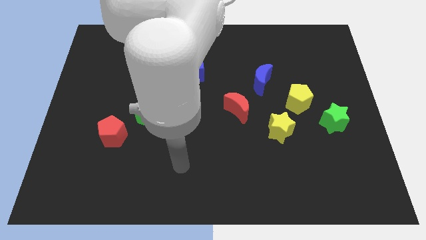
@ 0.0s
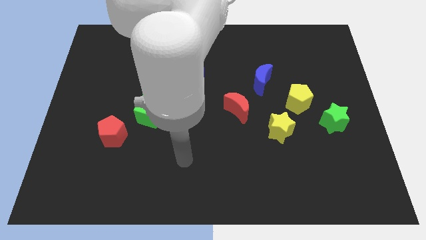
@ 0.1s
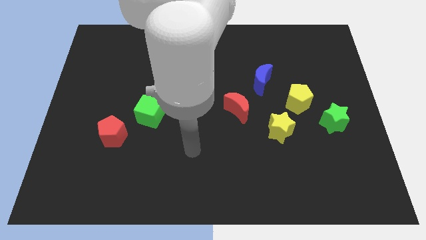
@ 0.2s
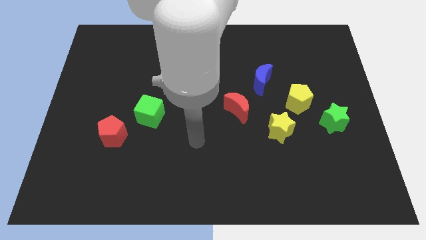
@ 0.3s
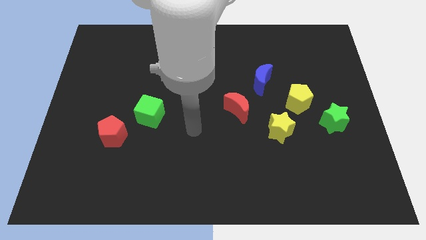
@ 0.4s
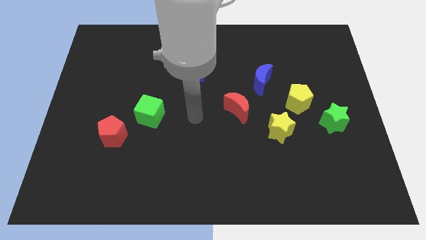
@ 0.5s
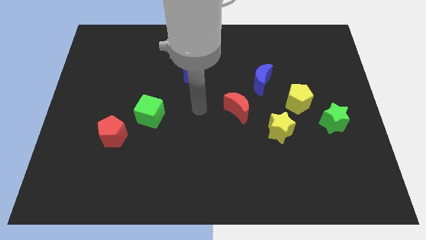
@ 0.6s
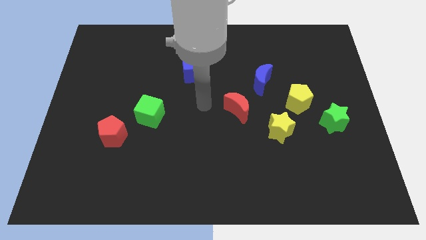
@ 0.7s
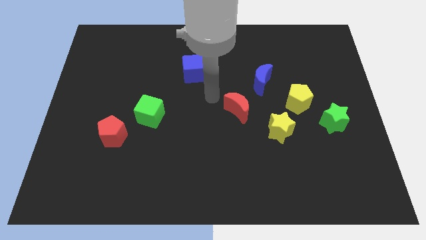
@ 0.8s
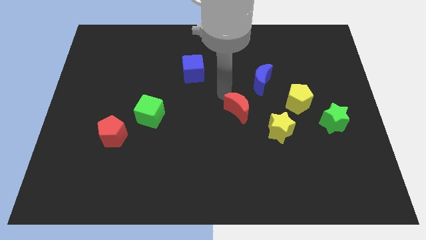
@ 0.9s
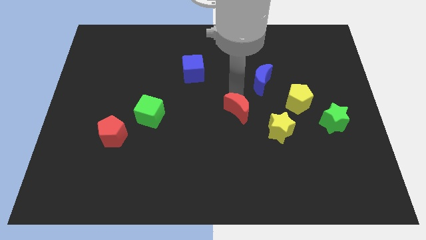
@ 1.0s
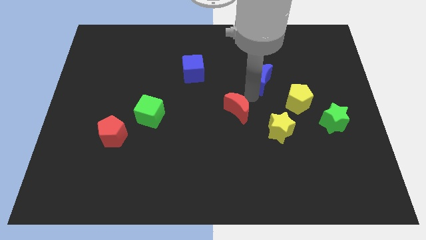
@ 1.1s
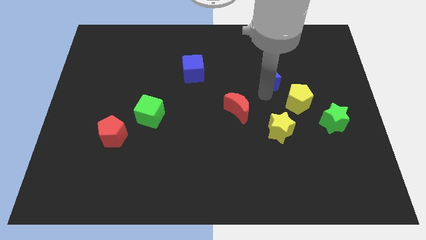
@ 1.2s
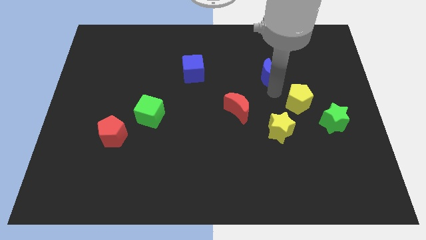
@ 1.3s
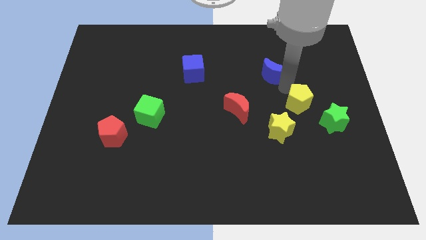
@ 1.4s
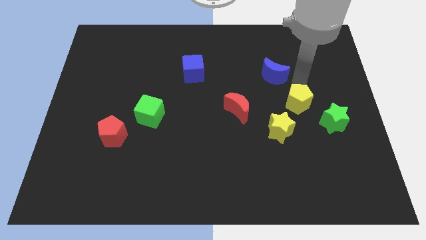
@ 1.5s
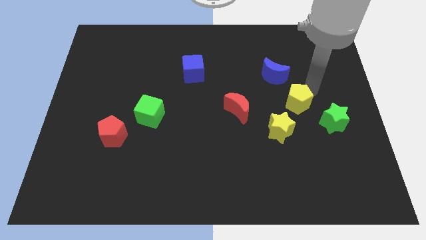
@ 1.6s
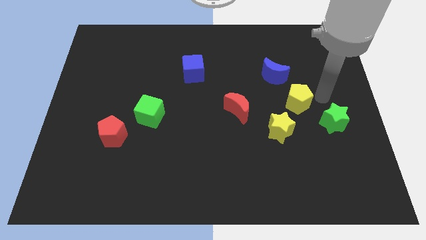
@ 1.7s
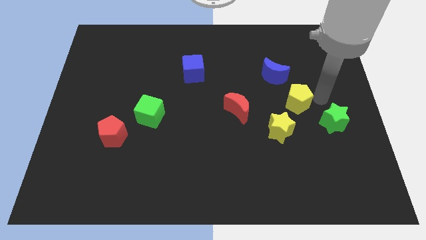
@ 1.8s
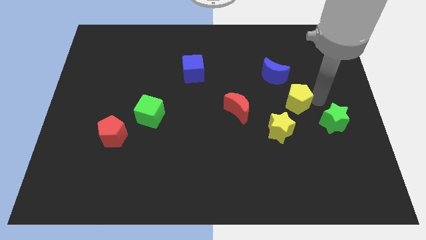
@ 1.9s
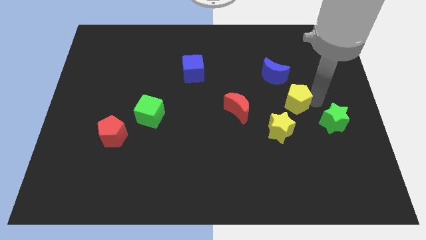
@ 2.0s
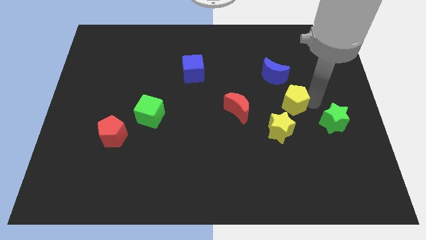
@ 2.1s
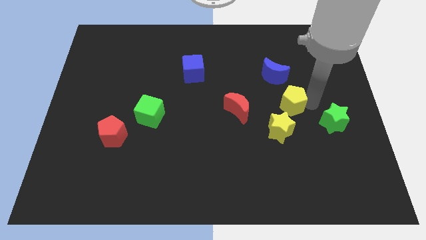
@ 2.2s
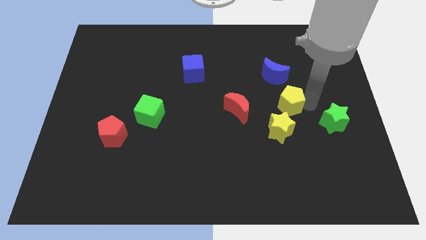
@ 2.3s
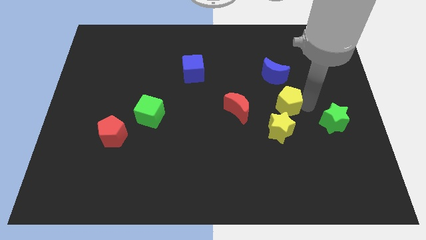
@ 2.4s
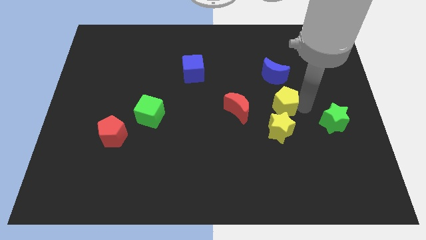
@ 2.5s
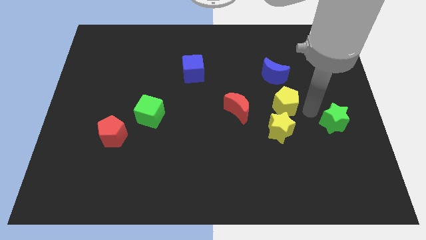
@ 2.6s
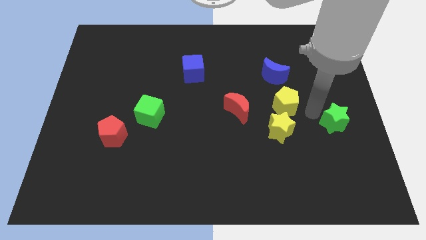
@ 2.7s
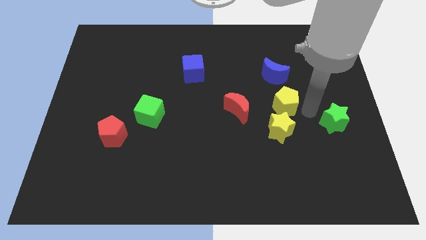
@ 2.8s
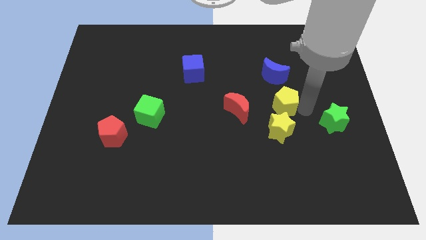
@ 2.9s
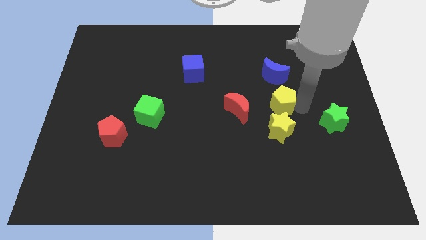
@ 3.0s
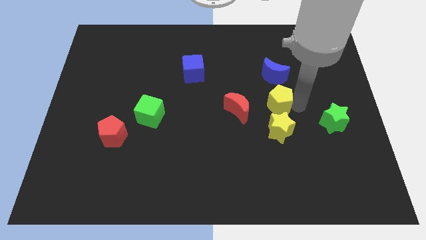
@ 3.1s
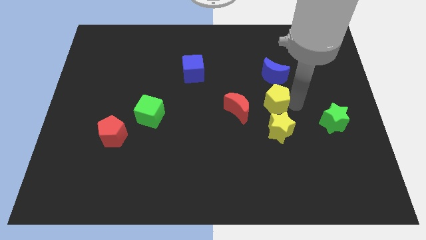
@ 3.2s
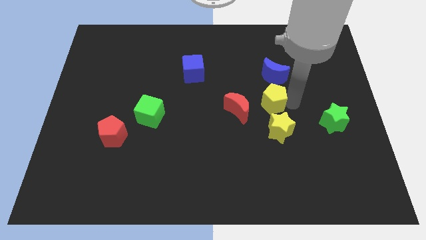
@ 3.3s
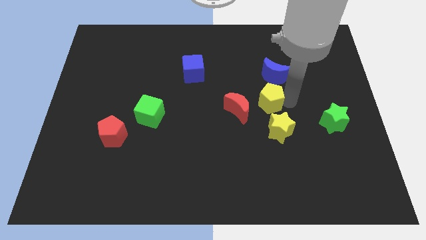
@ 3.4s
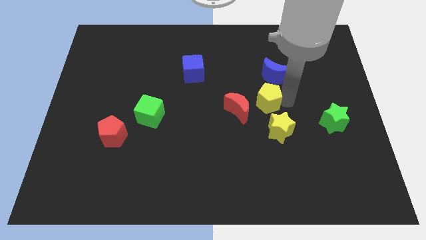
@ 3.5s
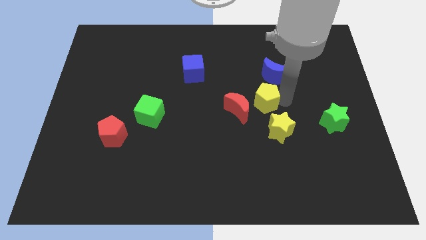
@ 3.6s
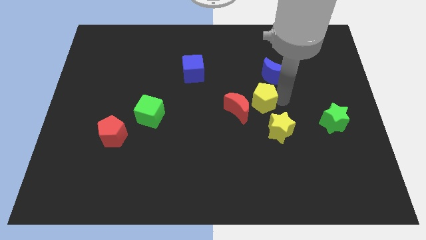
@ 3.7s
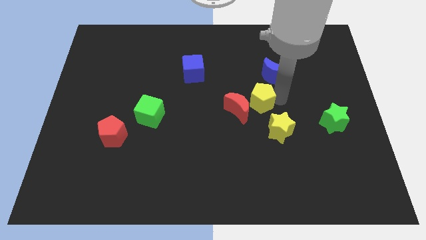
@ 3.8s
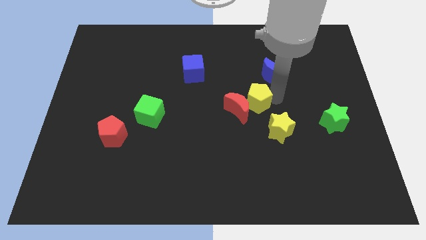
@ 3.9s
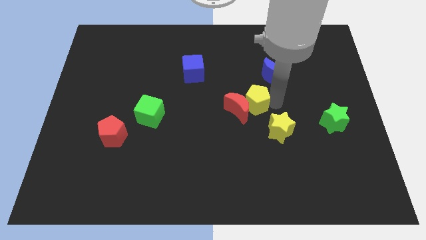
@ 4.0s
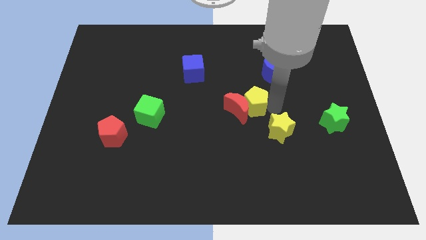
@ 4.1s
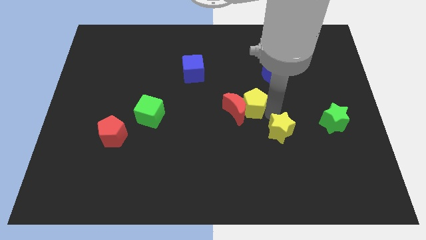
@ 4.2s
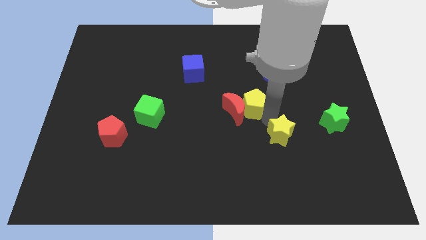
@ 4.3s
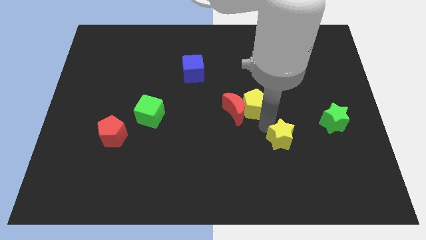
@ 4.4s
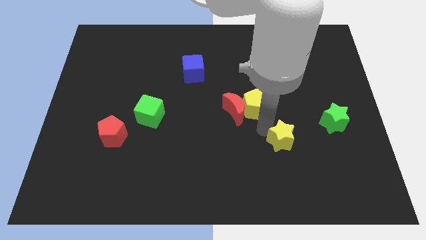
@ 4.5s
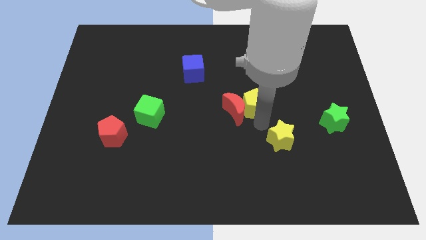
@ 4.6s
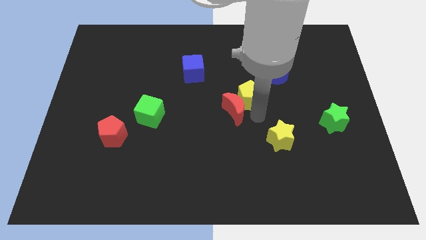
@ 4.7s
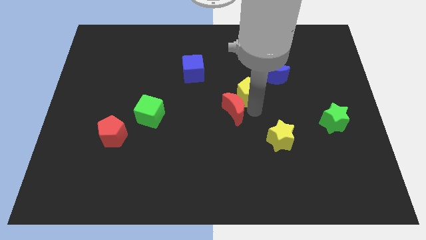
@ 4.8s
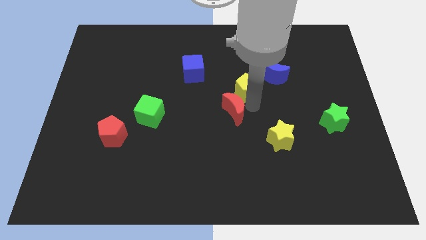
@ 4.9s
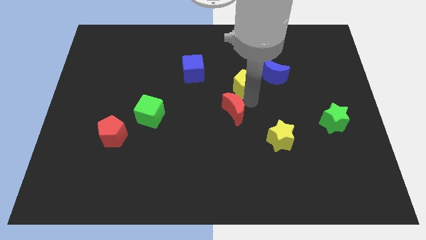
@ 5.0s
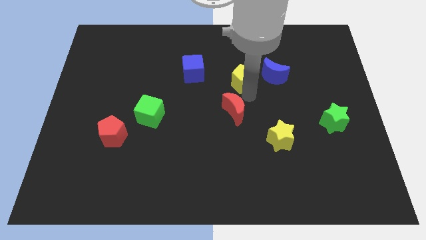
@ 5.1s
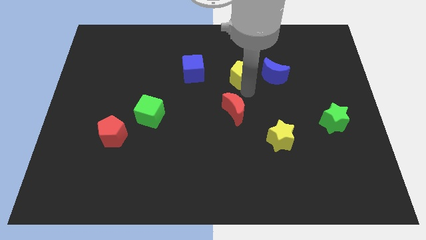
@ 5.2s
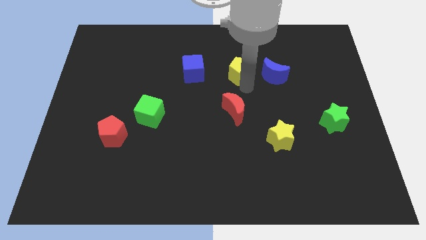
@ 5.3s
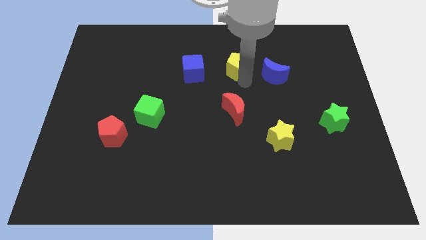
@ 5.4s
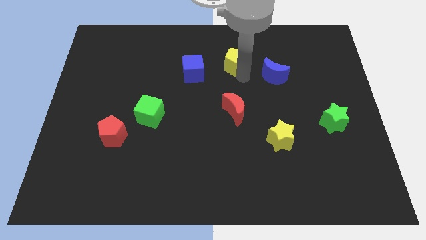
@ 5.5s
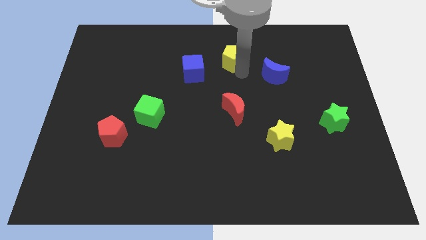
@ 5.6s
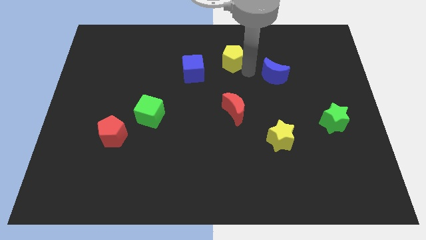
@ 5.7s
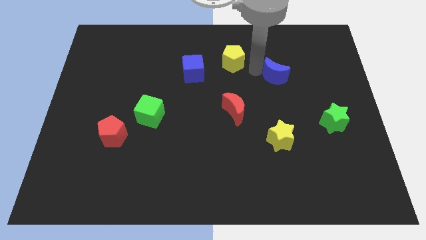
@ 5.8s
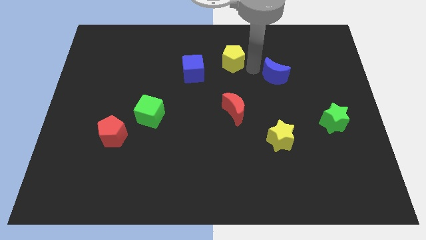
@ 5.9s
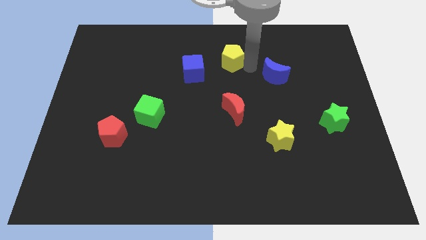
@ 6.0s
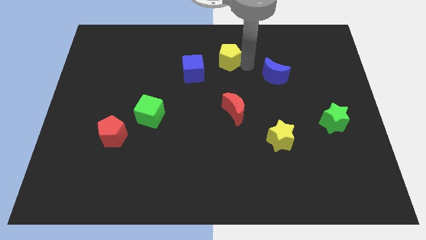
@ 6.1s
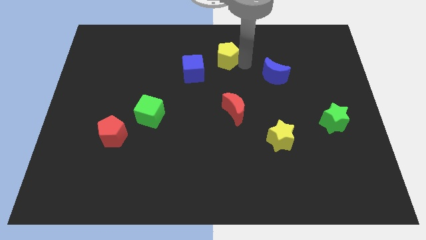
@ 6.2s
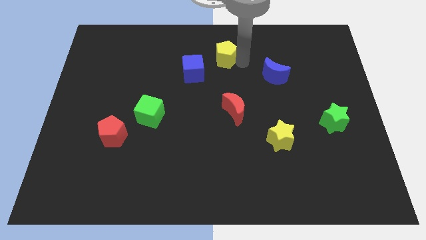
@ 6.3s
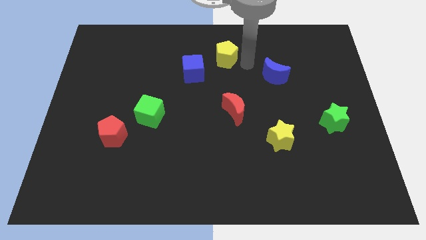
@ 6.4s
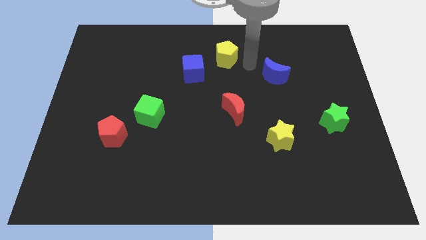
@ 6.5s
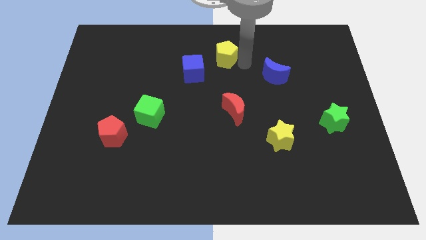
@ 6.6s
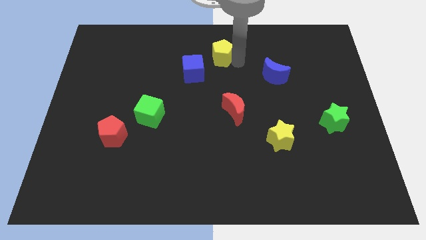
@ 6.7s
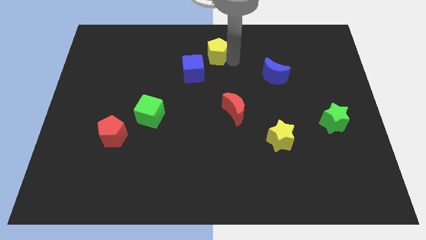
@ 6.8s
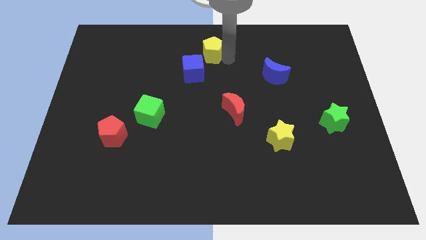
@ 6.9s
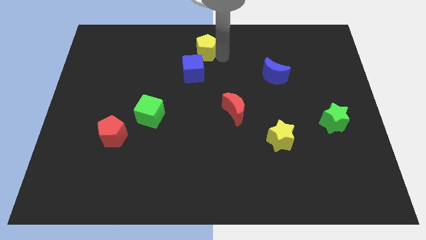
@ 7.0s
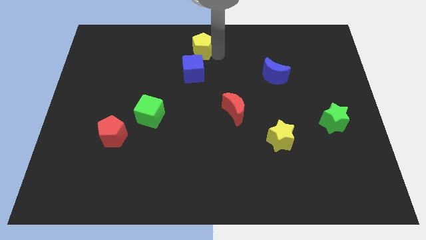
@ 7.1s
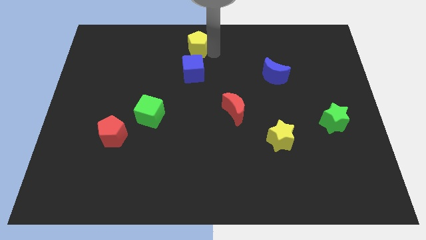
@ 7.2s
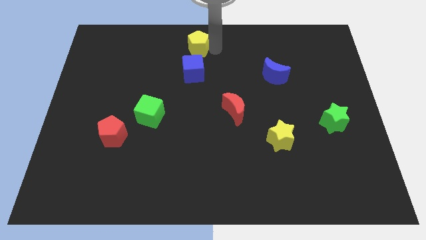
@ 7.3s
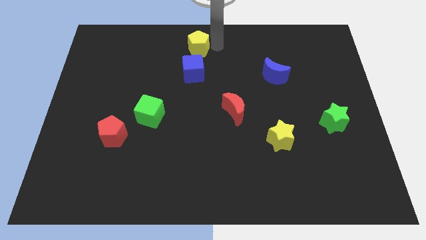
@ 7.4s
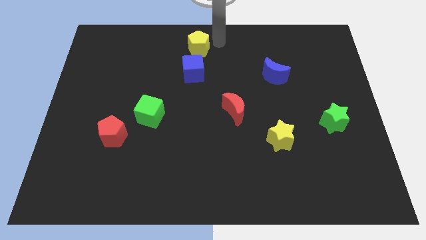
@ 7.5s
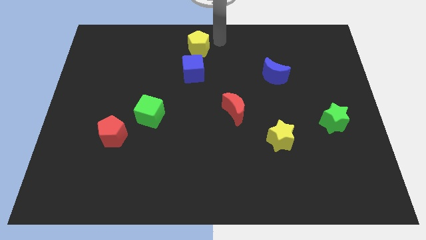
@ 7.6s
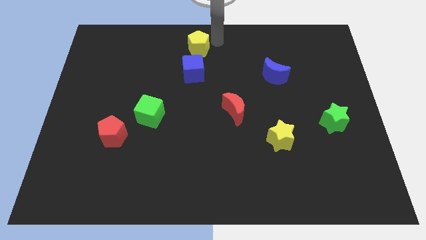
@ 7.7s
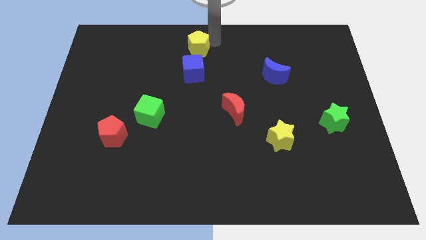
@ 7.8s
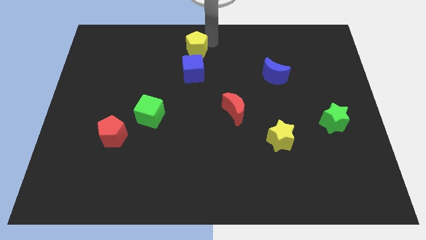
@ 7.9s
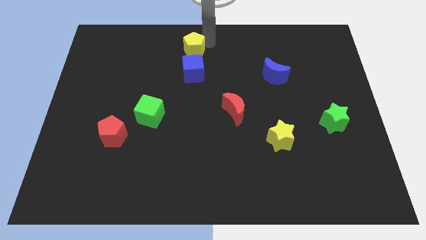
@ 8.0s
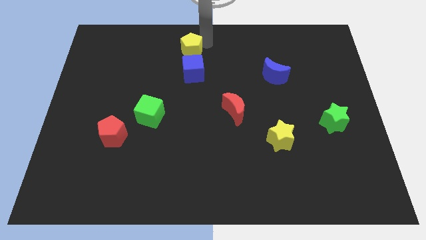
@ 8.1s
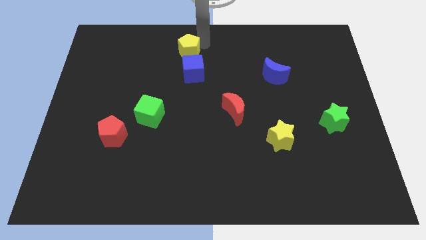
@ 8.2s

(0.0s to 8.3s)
move the yellow pentagon diagonally up and to the left of the blue cube
